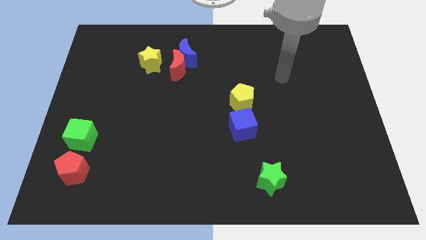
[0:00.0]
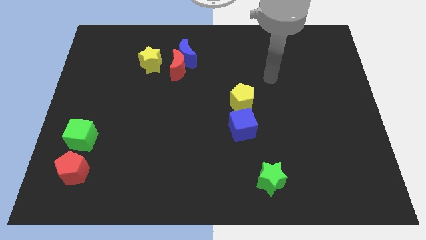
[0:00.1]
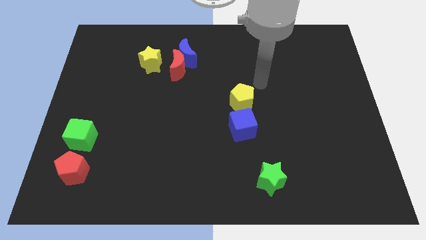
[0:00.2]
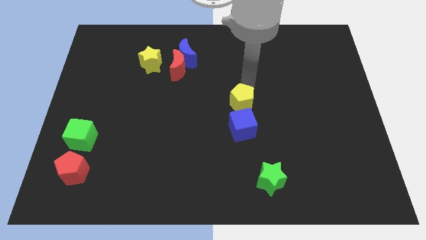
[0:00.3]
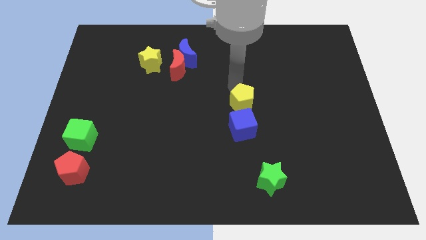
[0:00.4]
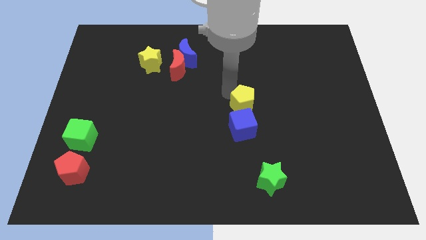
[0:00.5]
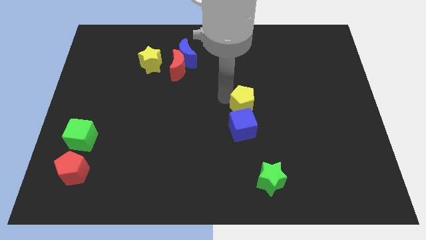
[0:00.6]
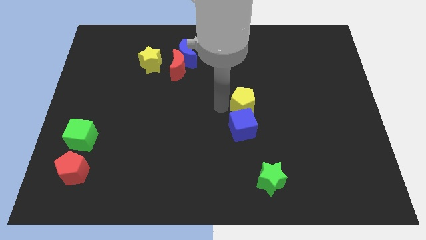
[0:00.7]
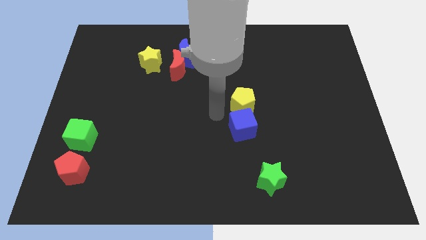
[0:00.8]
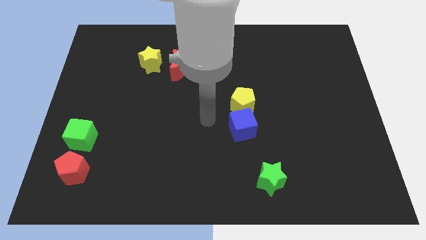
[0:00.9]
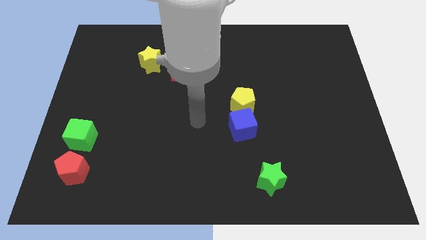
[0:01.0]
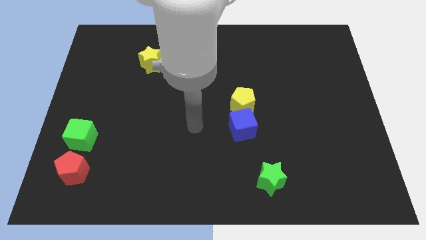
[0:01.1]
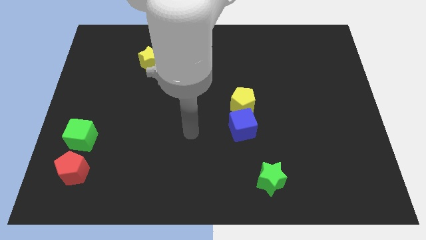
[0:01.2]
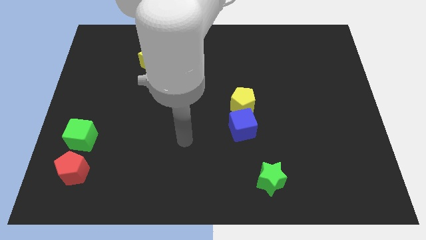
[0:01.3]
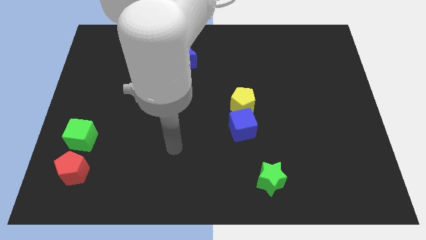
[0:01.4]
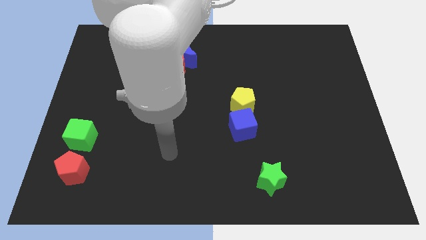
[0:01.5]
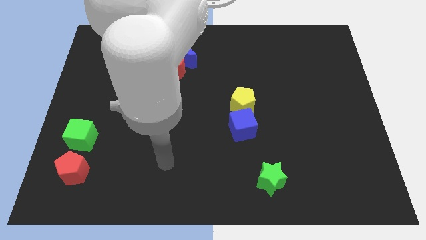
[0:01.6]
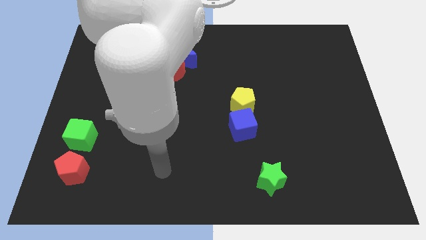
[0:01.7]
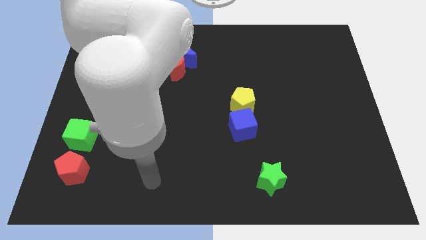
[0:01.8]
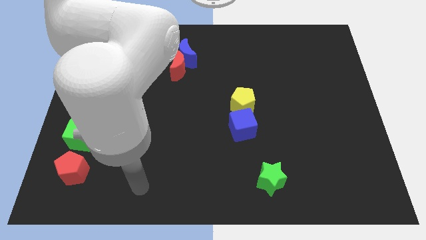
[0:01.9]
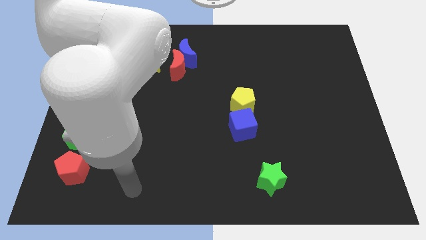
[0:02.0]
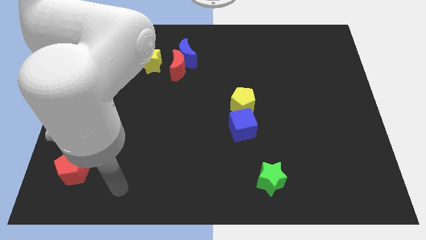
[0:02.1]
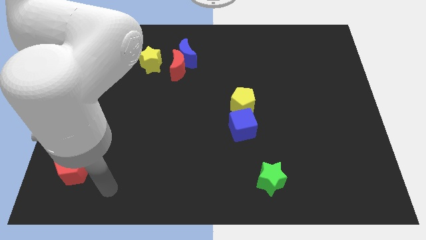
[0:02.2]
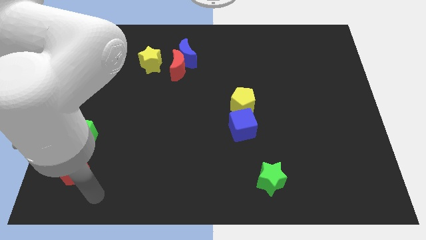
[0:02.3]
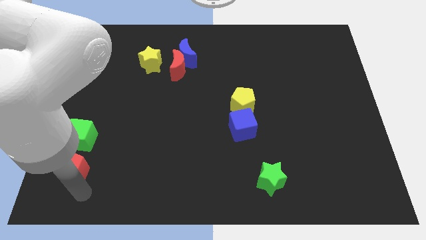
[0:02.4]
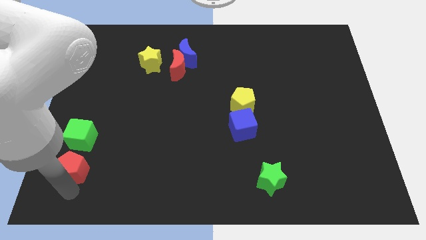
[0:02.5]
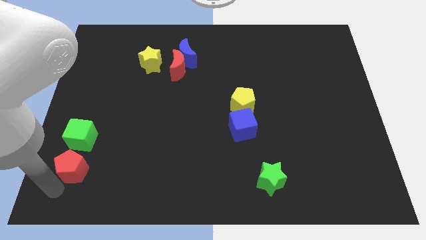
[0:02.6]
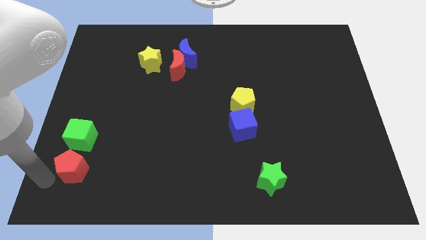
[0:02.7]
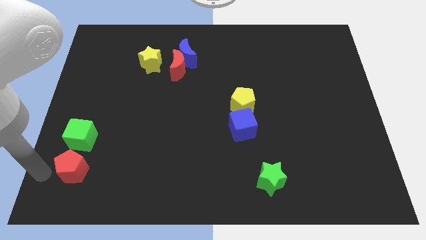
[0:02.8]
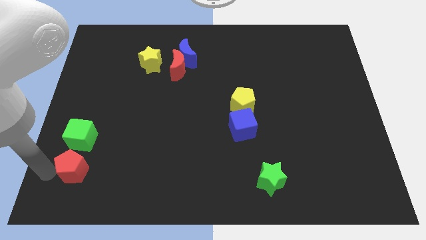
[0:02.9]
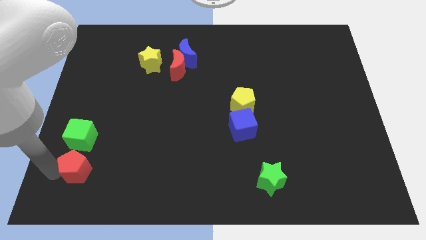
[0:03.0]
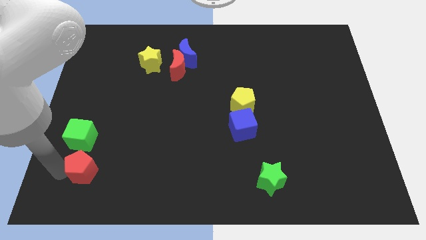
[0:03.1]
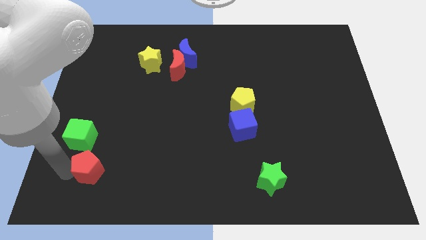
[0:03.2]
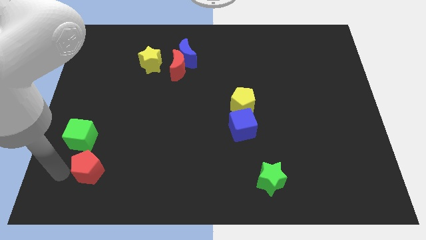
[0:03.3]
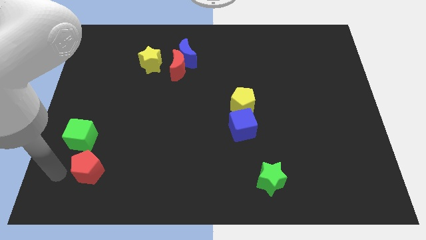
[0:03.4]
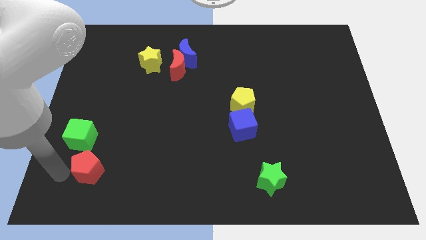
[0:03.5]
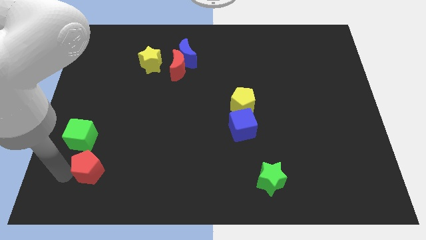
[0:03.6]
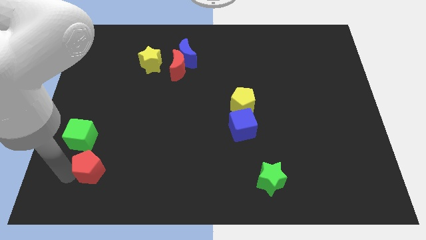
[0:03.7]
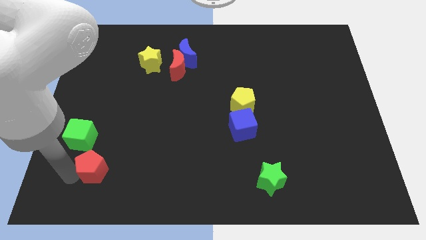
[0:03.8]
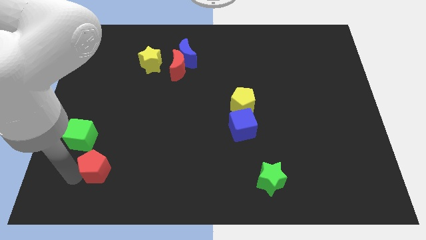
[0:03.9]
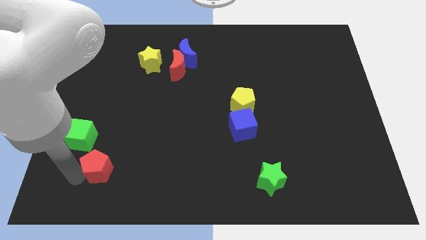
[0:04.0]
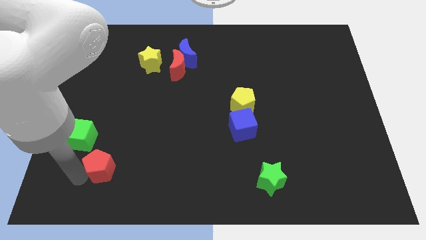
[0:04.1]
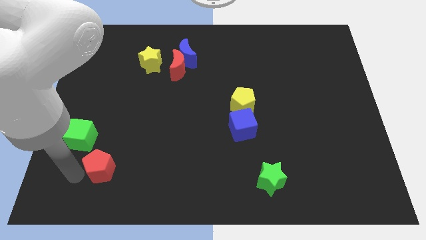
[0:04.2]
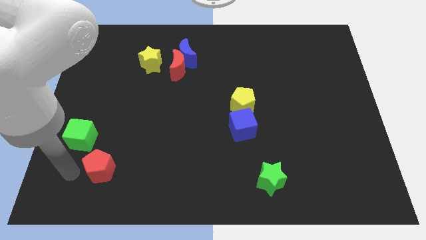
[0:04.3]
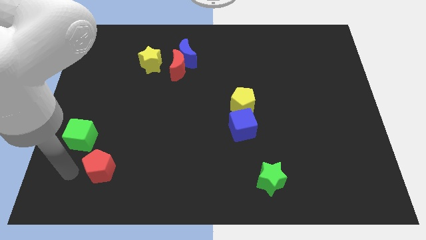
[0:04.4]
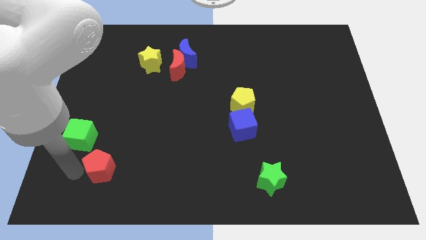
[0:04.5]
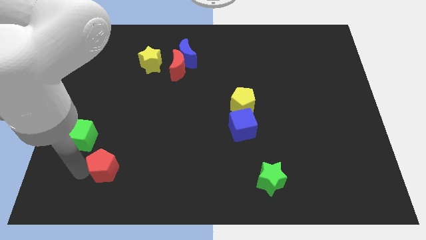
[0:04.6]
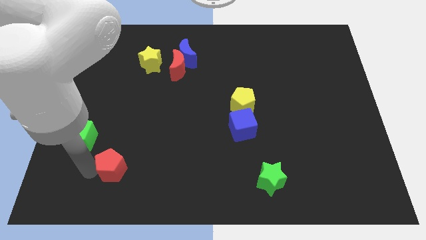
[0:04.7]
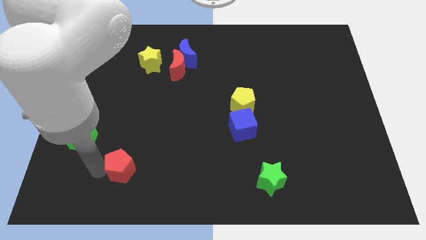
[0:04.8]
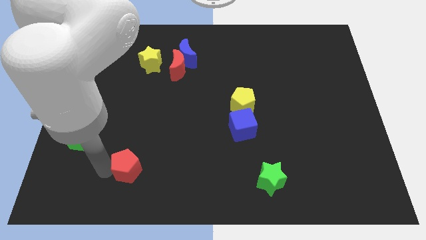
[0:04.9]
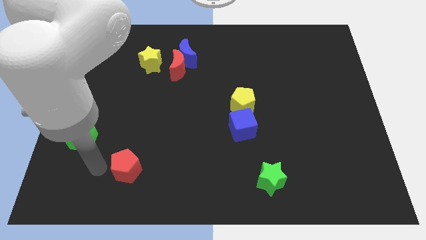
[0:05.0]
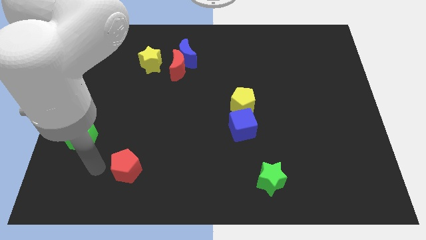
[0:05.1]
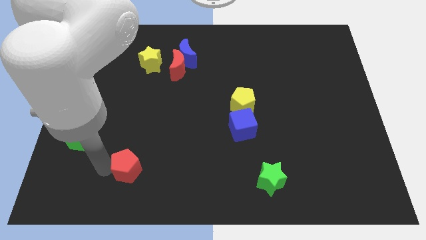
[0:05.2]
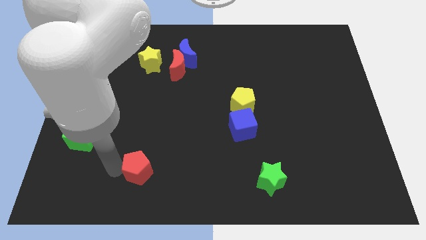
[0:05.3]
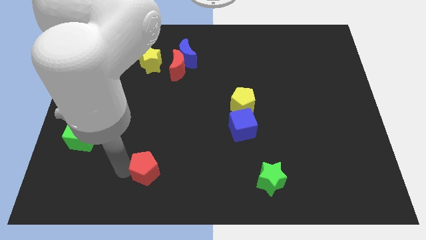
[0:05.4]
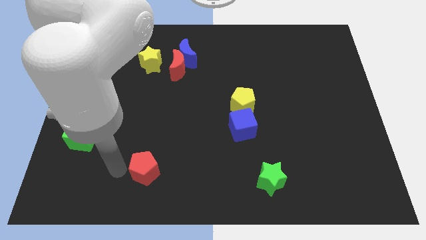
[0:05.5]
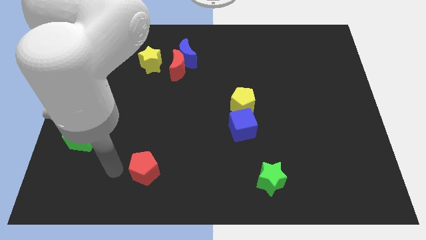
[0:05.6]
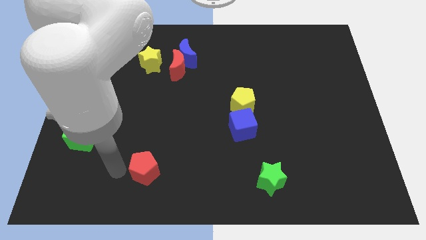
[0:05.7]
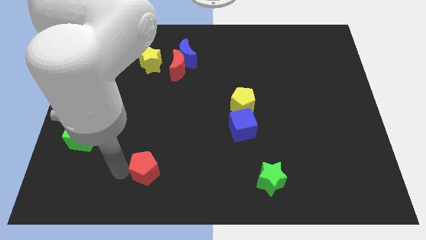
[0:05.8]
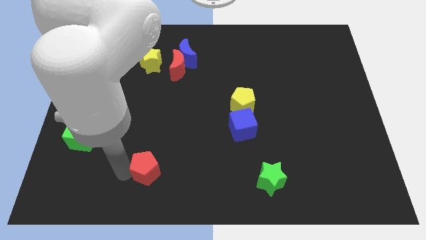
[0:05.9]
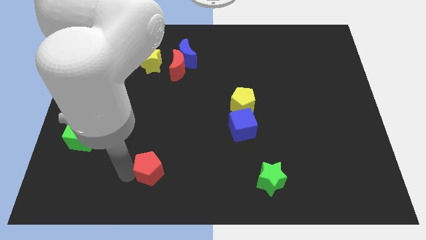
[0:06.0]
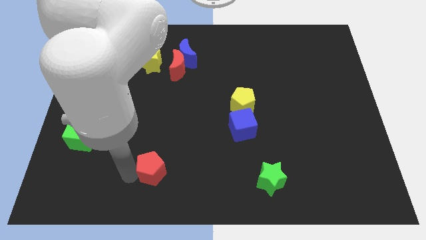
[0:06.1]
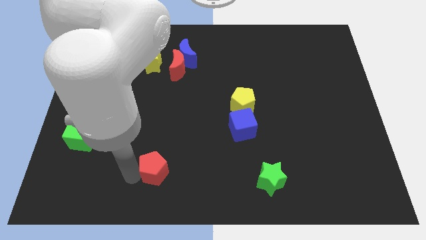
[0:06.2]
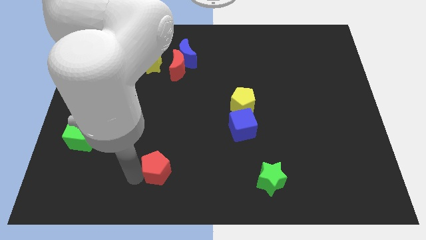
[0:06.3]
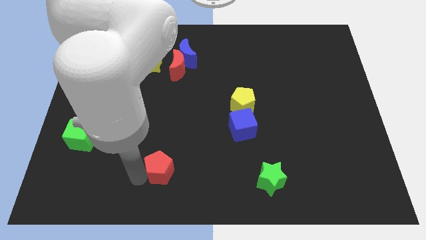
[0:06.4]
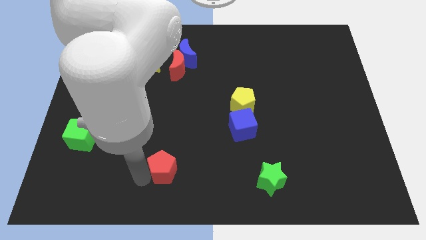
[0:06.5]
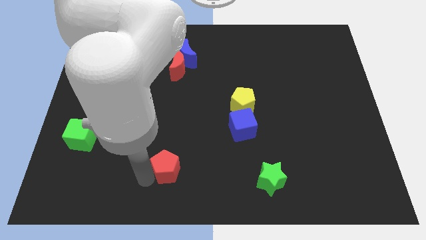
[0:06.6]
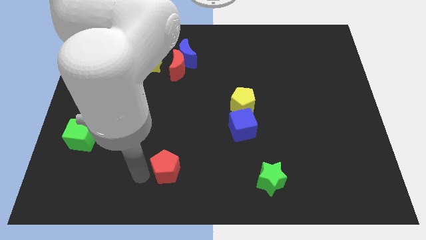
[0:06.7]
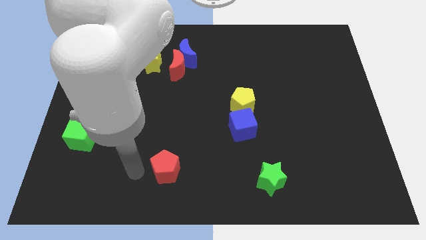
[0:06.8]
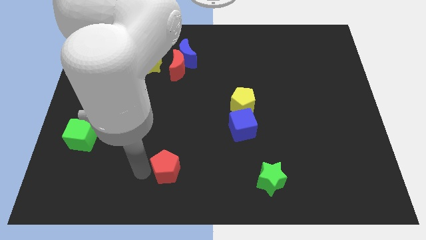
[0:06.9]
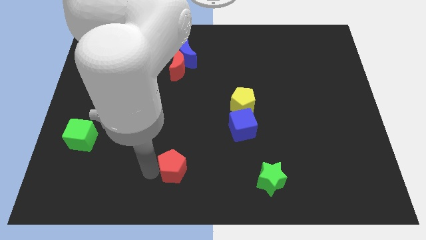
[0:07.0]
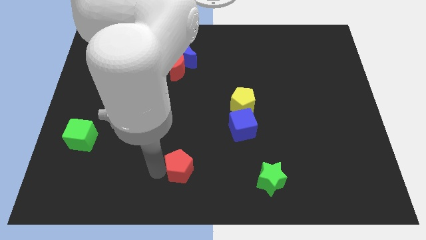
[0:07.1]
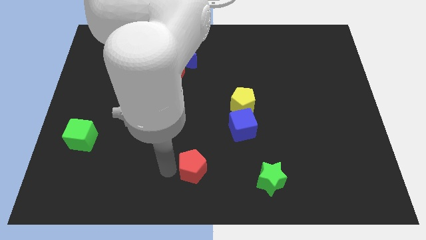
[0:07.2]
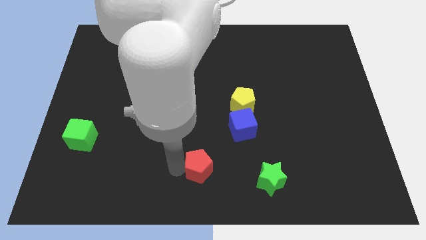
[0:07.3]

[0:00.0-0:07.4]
slide the red pentagon to the left of the green star
